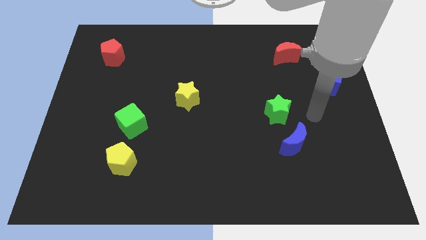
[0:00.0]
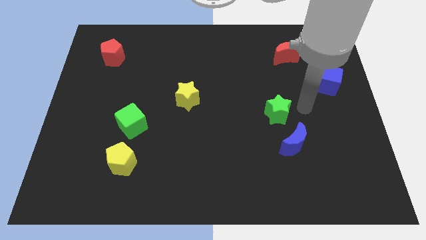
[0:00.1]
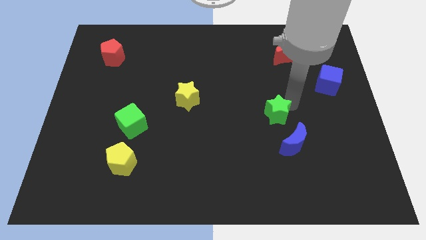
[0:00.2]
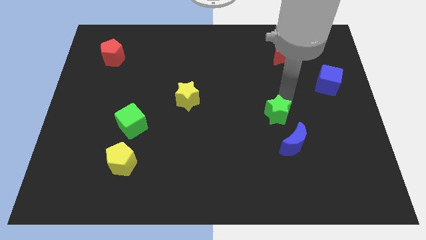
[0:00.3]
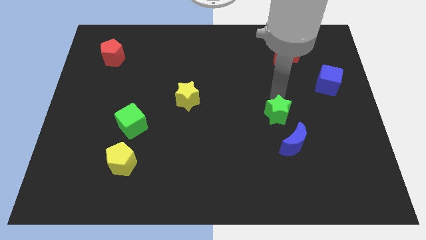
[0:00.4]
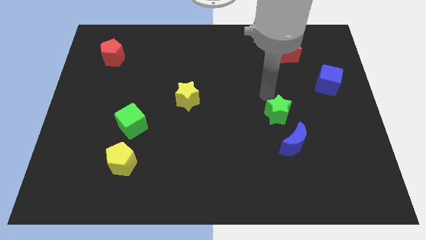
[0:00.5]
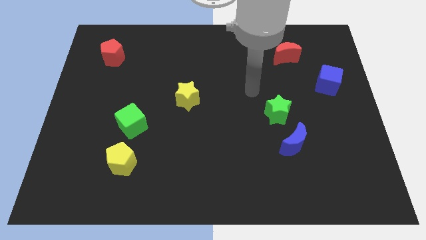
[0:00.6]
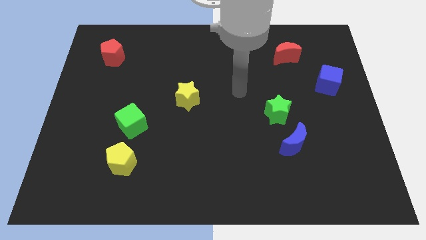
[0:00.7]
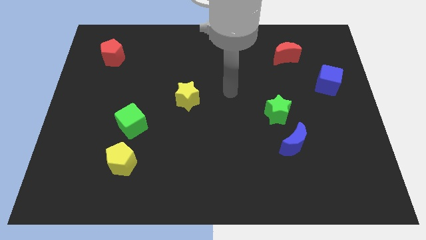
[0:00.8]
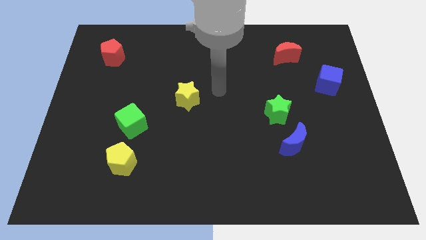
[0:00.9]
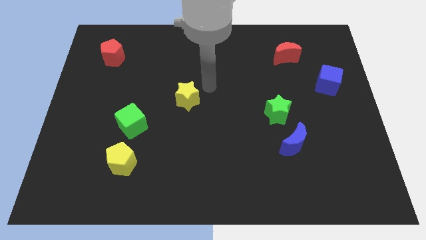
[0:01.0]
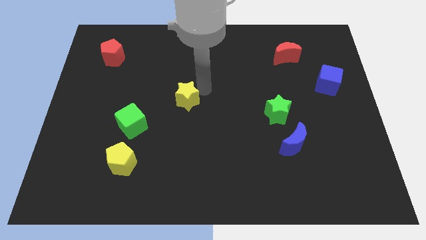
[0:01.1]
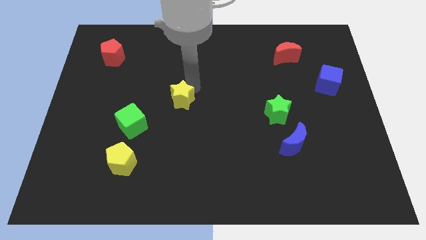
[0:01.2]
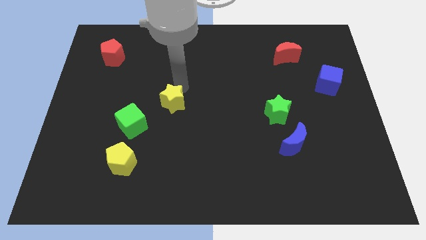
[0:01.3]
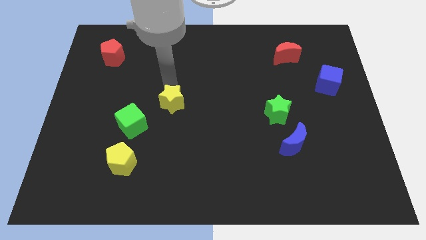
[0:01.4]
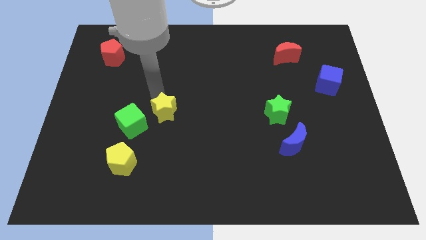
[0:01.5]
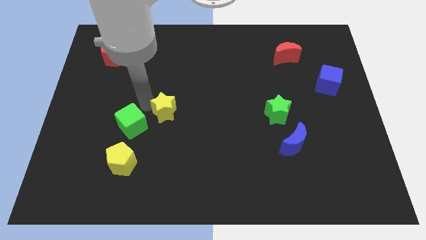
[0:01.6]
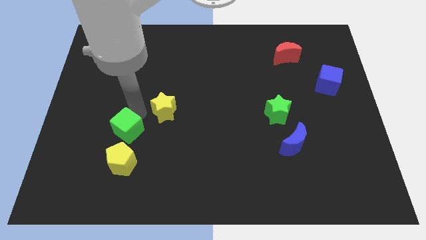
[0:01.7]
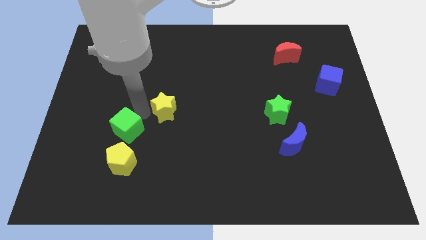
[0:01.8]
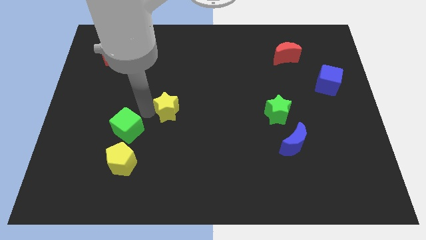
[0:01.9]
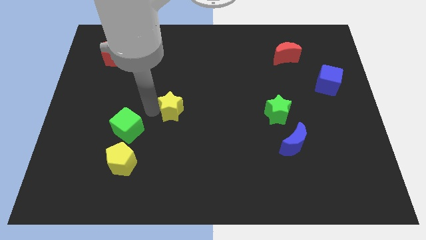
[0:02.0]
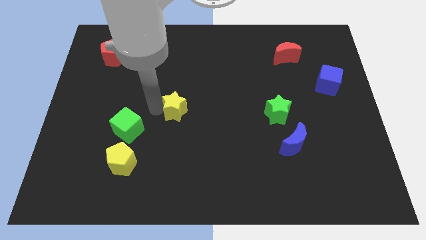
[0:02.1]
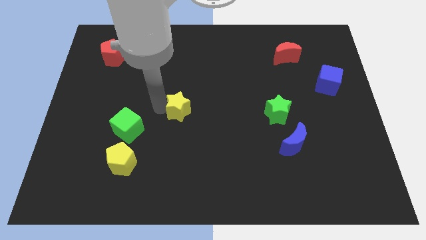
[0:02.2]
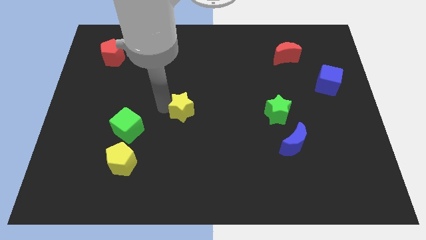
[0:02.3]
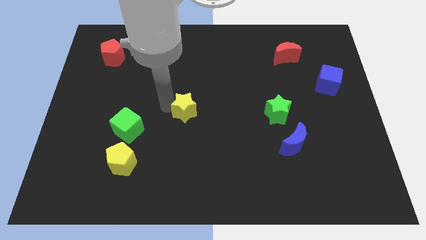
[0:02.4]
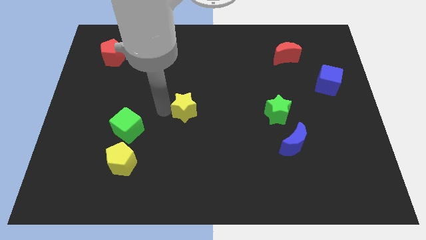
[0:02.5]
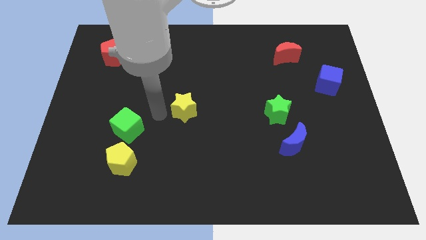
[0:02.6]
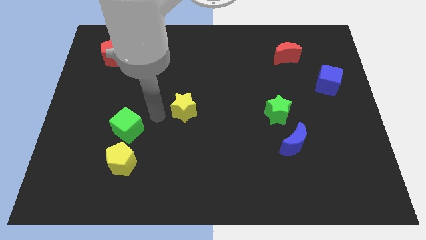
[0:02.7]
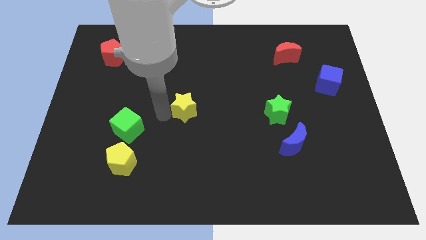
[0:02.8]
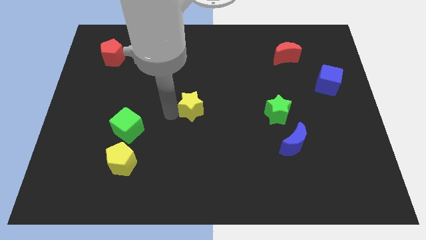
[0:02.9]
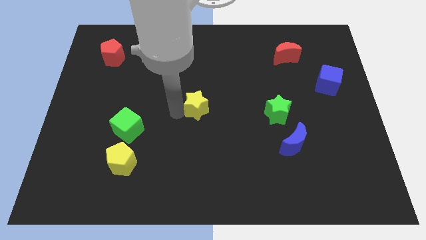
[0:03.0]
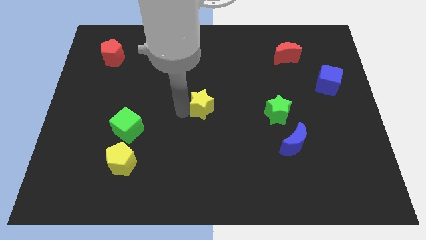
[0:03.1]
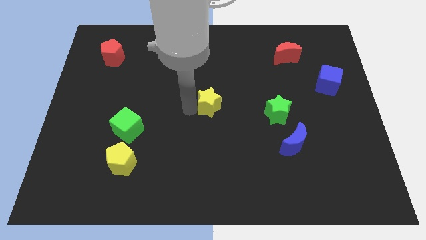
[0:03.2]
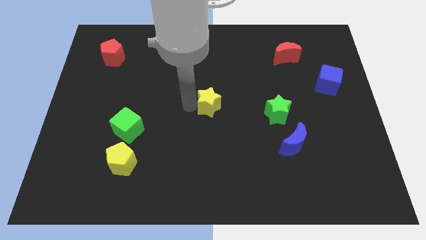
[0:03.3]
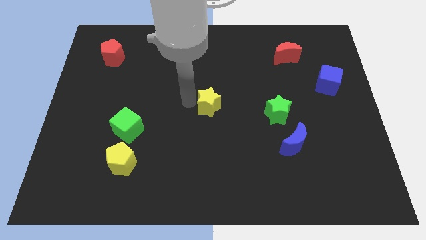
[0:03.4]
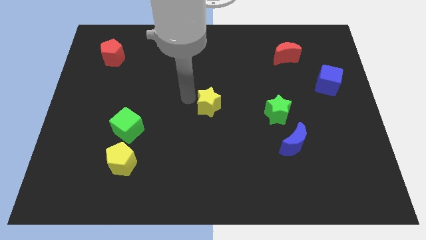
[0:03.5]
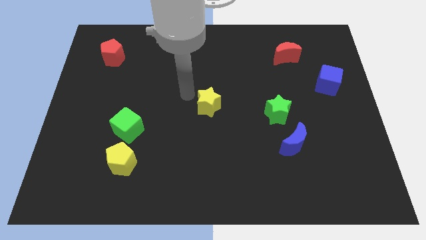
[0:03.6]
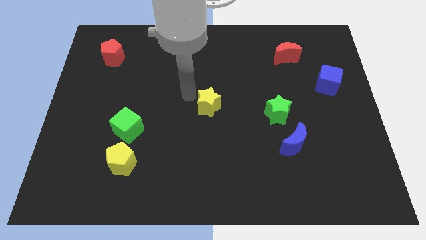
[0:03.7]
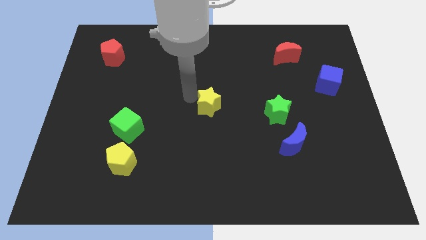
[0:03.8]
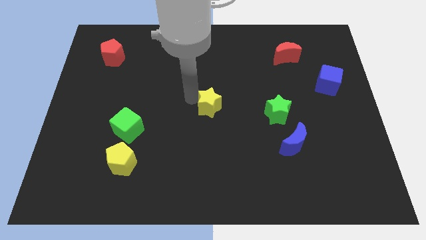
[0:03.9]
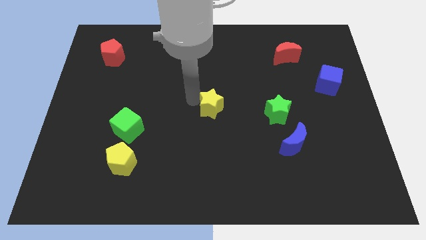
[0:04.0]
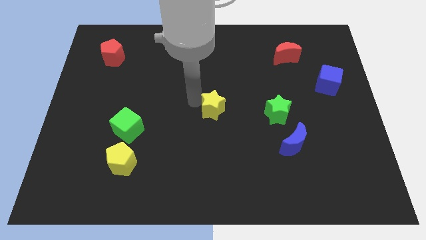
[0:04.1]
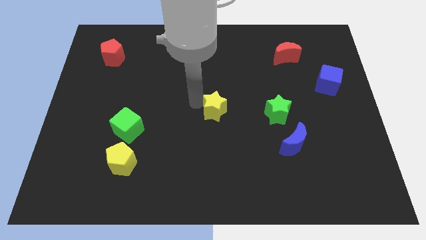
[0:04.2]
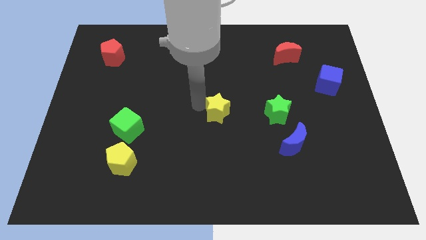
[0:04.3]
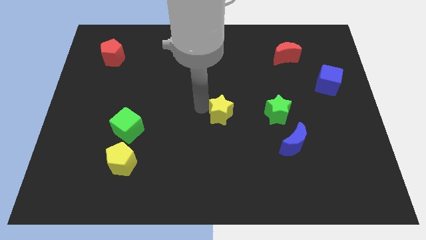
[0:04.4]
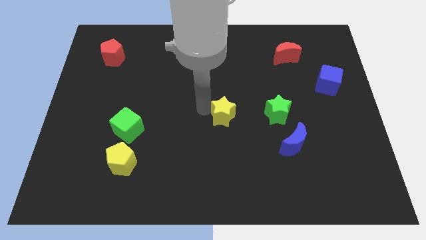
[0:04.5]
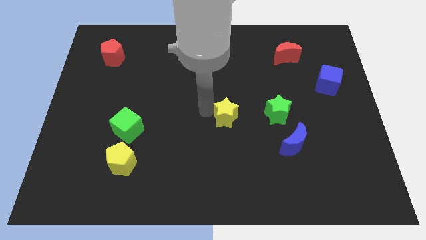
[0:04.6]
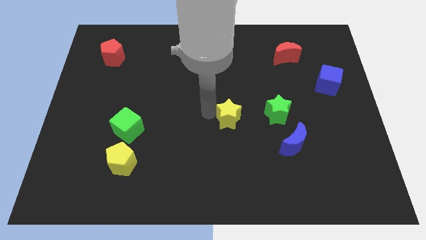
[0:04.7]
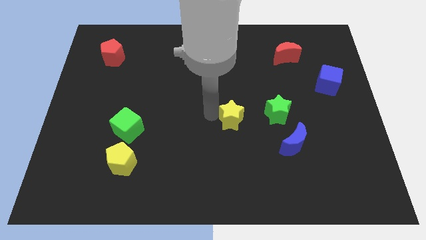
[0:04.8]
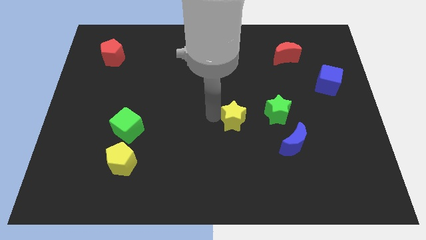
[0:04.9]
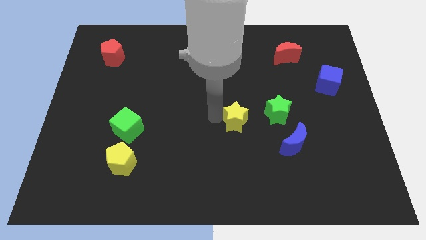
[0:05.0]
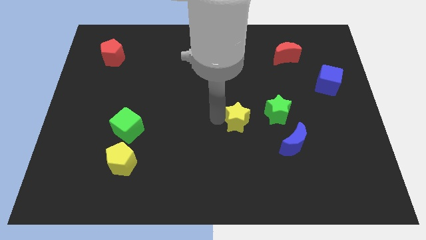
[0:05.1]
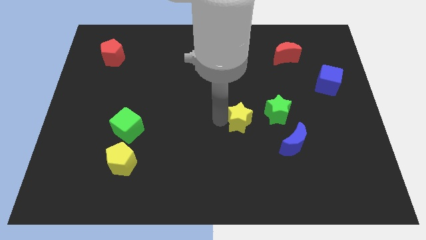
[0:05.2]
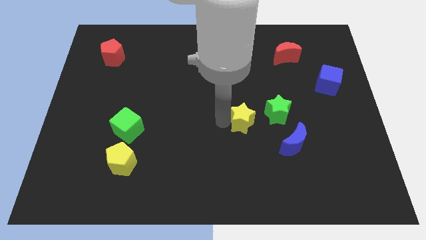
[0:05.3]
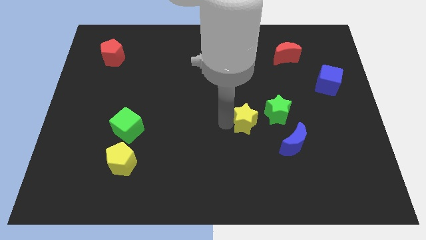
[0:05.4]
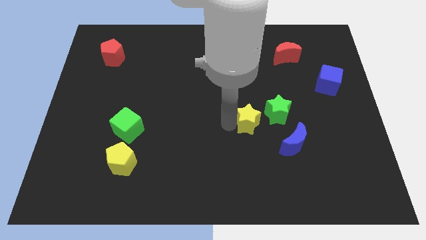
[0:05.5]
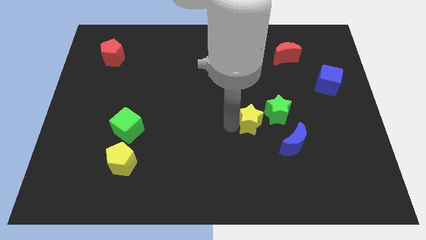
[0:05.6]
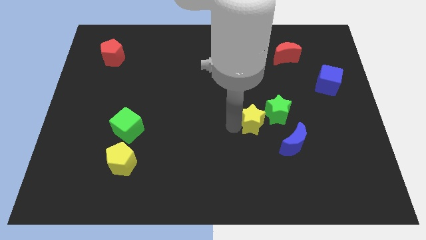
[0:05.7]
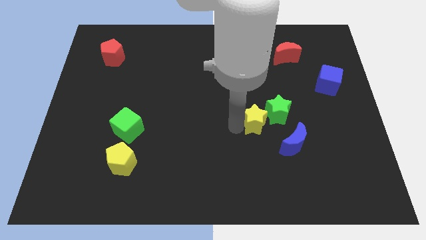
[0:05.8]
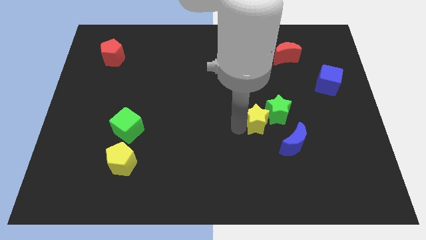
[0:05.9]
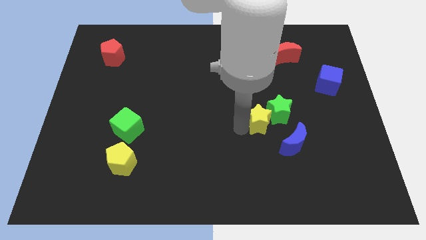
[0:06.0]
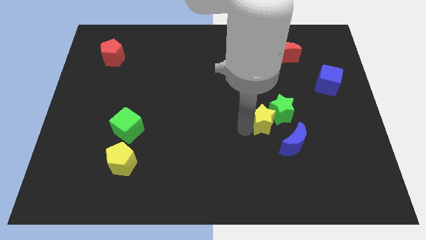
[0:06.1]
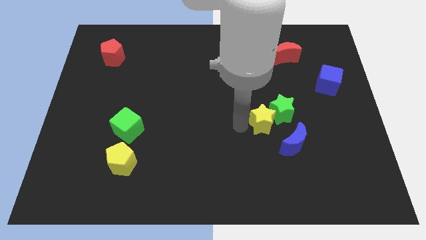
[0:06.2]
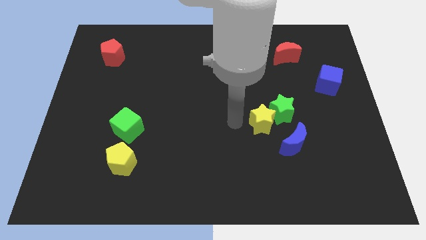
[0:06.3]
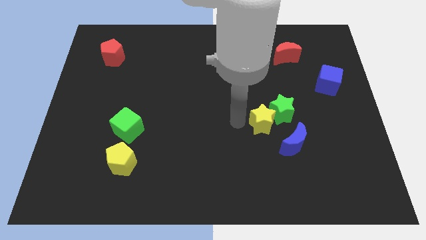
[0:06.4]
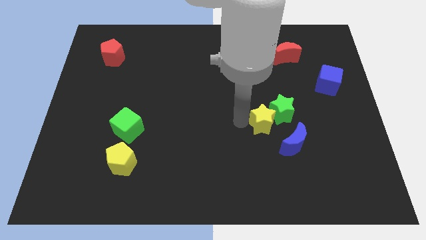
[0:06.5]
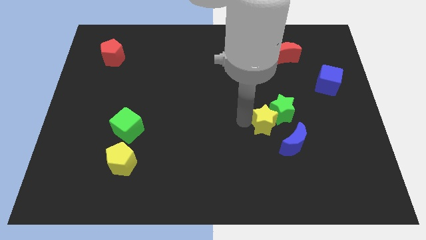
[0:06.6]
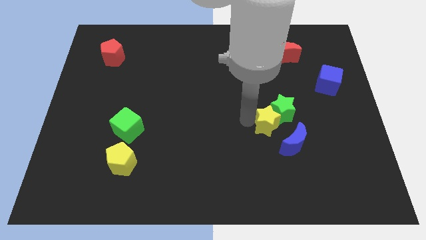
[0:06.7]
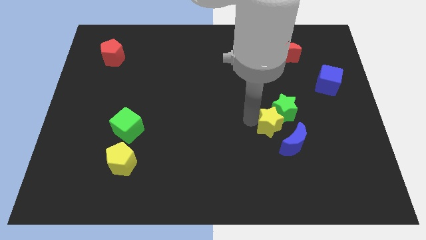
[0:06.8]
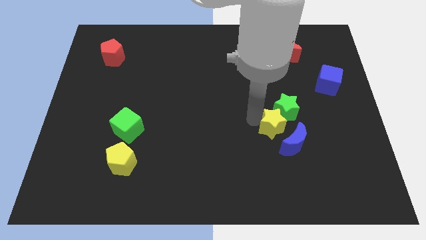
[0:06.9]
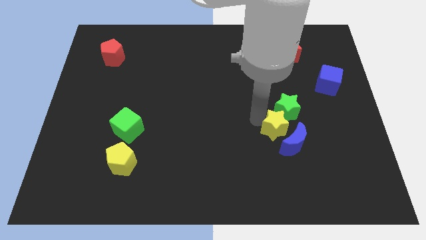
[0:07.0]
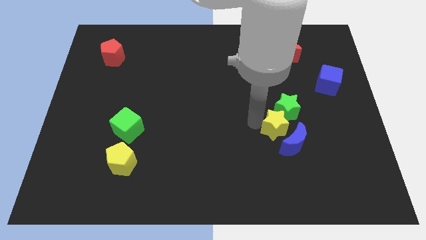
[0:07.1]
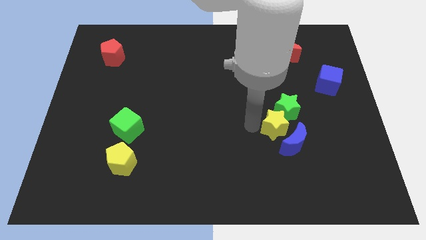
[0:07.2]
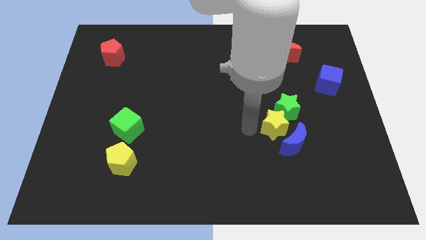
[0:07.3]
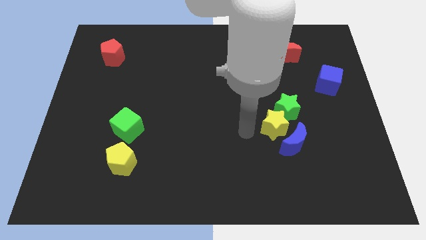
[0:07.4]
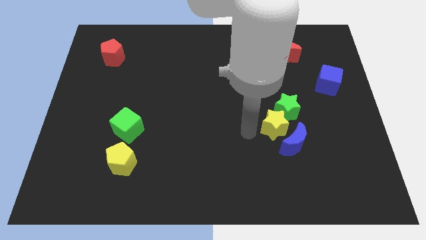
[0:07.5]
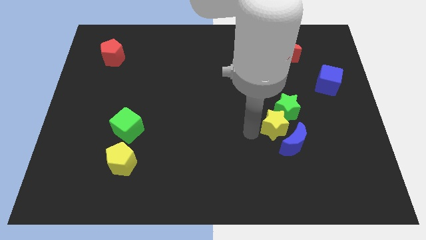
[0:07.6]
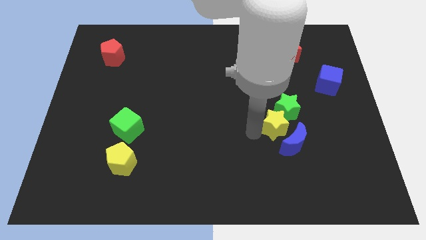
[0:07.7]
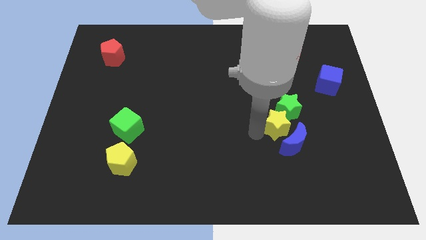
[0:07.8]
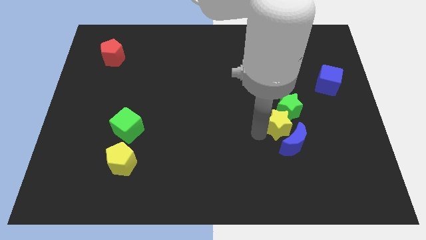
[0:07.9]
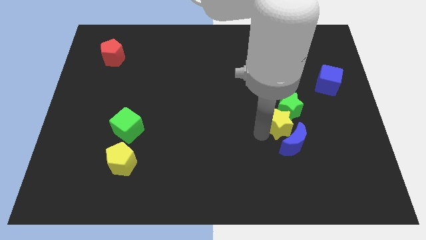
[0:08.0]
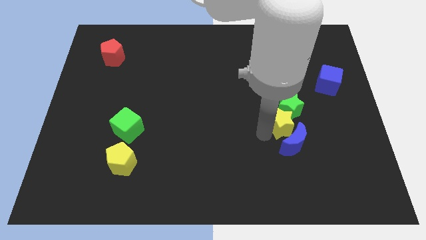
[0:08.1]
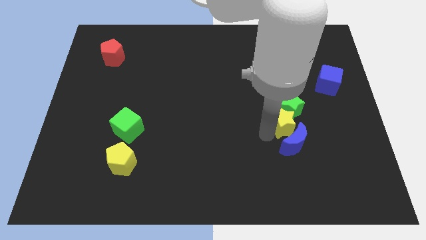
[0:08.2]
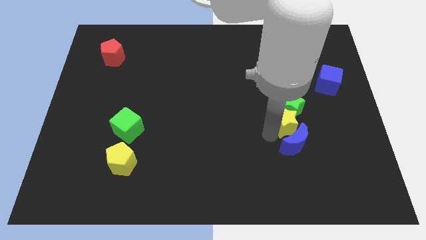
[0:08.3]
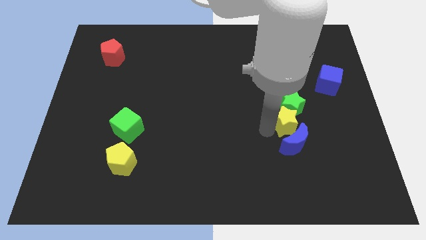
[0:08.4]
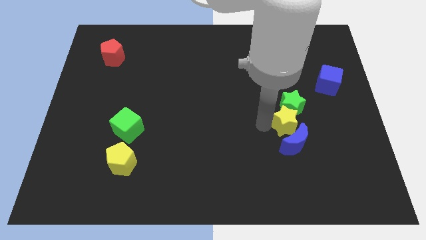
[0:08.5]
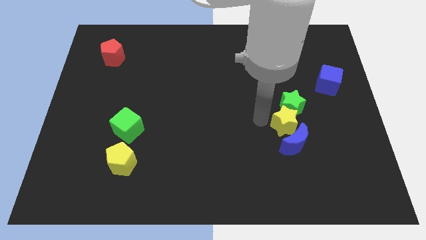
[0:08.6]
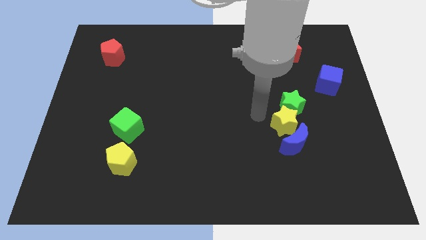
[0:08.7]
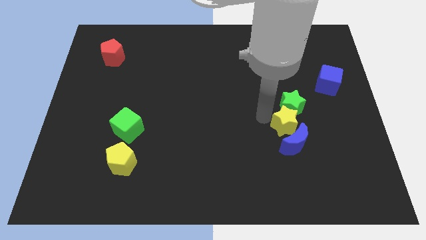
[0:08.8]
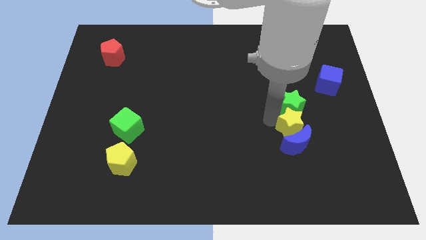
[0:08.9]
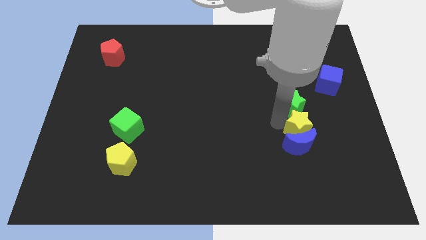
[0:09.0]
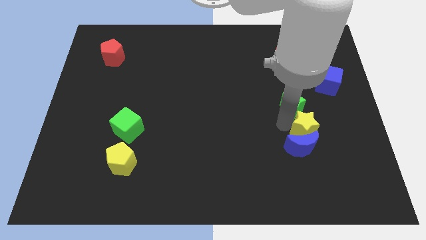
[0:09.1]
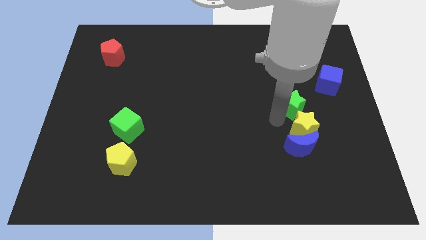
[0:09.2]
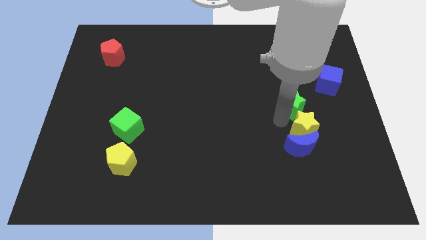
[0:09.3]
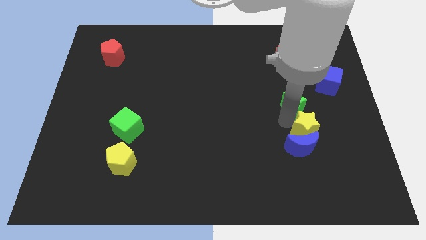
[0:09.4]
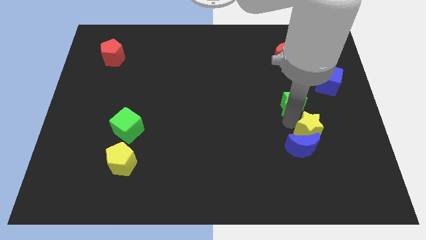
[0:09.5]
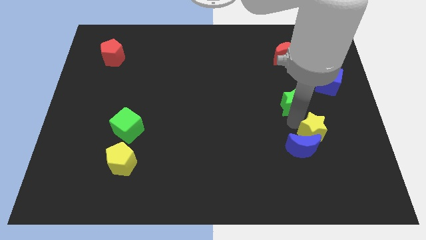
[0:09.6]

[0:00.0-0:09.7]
push the yellow star to the right of the blue moon
